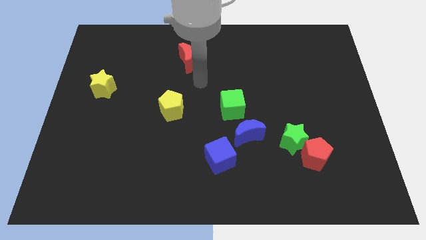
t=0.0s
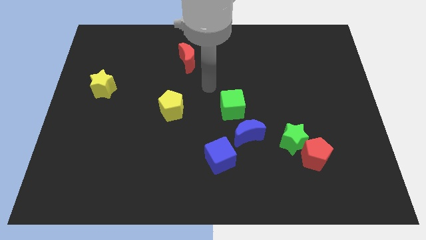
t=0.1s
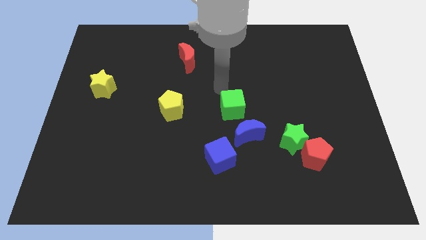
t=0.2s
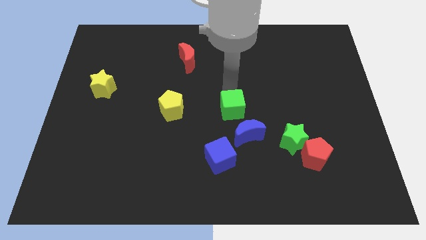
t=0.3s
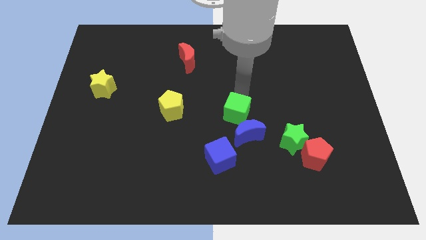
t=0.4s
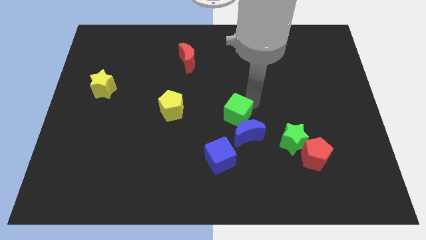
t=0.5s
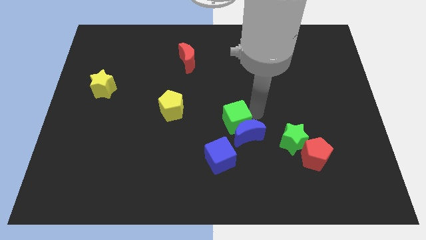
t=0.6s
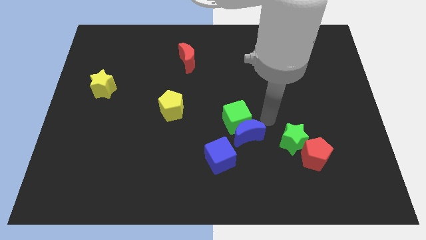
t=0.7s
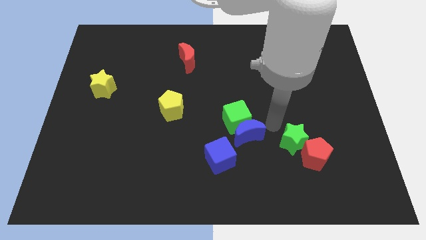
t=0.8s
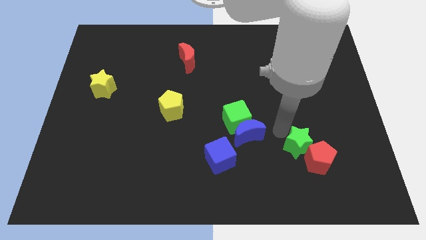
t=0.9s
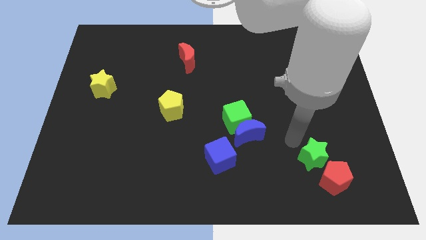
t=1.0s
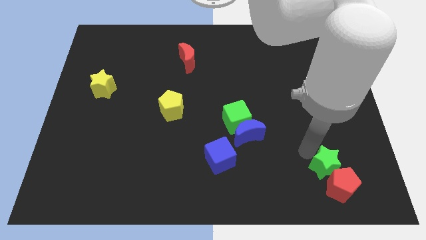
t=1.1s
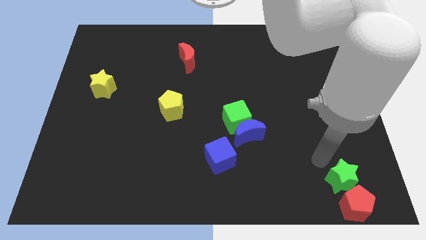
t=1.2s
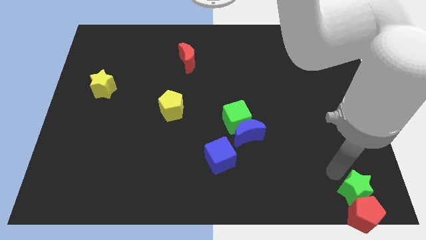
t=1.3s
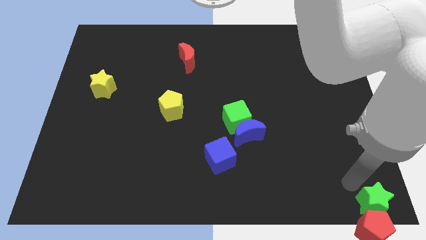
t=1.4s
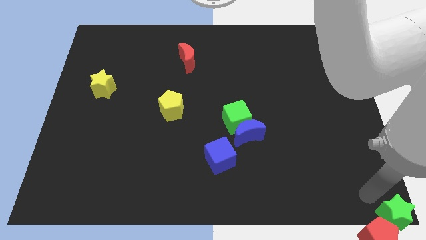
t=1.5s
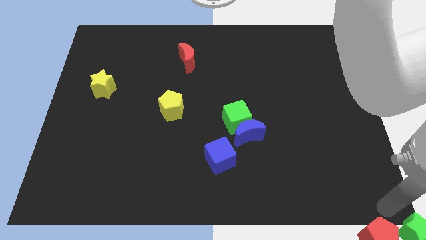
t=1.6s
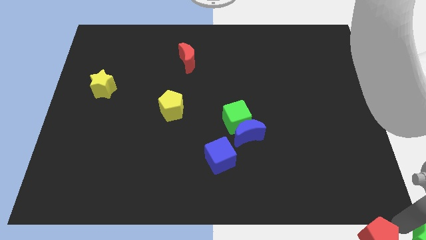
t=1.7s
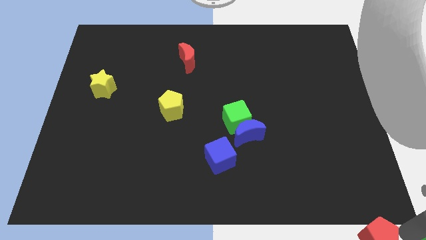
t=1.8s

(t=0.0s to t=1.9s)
move the red pentagon away from the green star

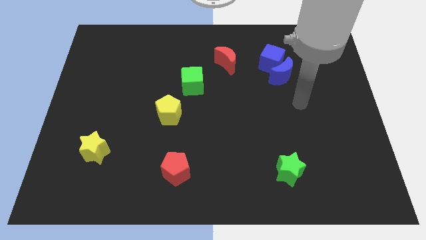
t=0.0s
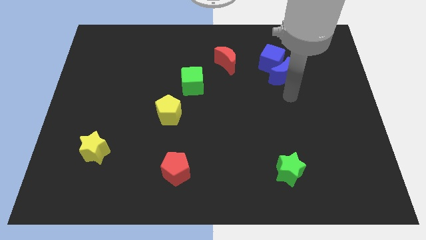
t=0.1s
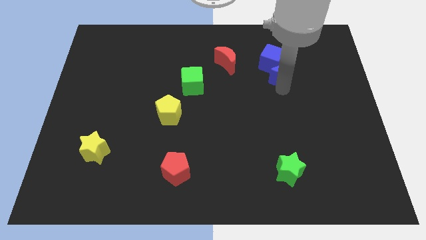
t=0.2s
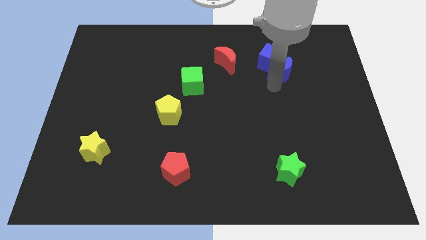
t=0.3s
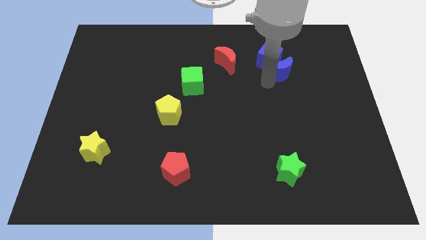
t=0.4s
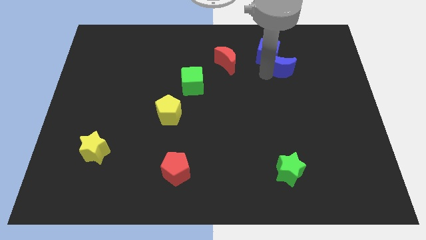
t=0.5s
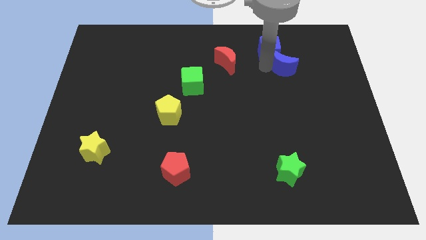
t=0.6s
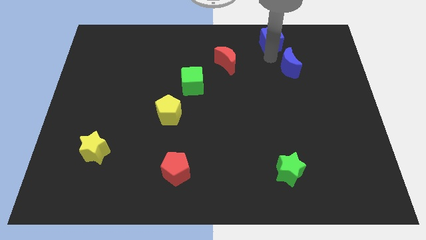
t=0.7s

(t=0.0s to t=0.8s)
separate the blue moon from the blue cube

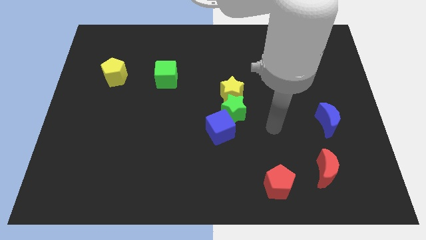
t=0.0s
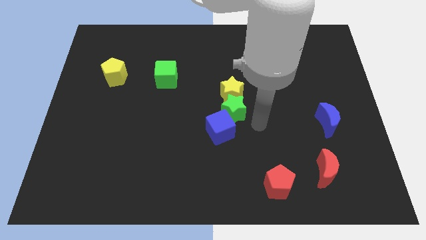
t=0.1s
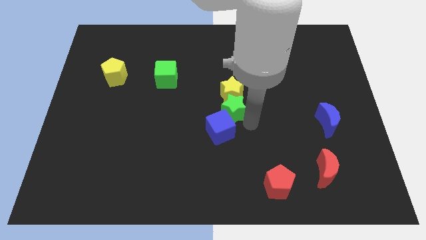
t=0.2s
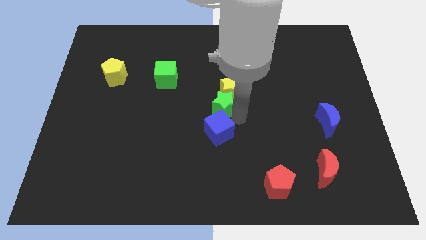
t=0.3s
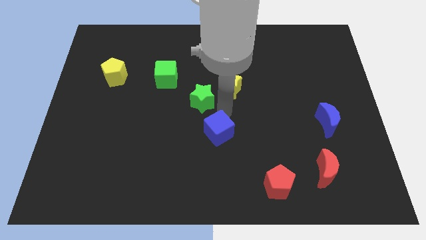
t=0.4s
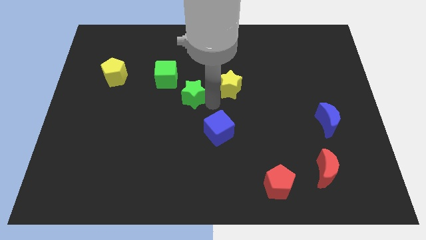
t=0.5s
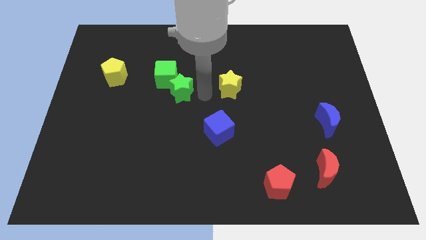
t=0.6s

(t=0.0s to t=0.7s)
separate the yellow star from the green star

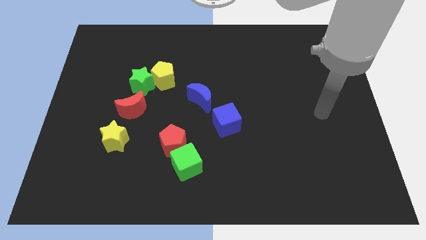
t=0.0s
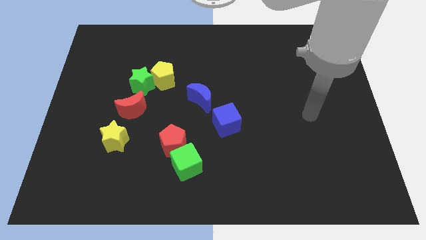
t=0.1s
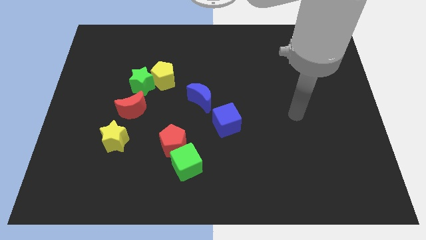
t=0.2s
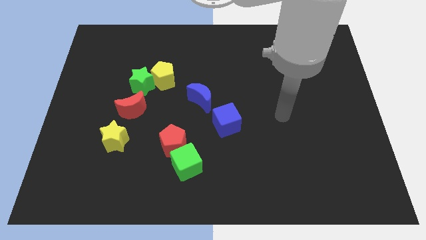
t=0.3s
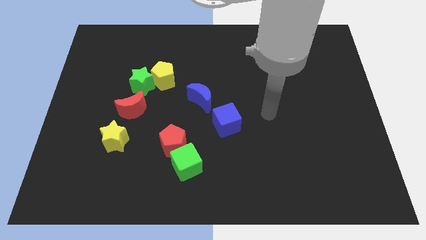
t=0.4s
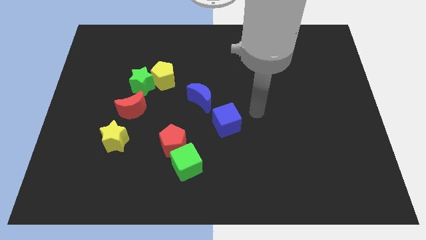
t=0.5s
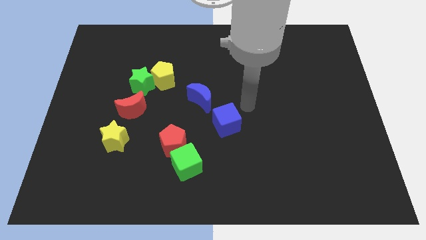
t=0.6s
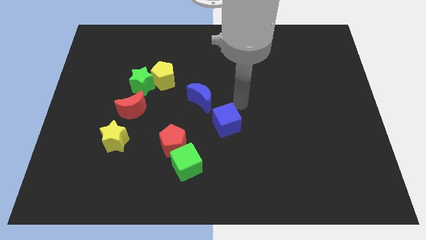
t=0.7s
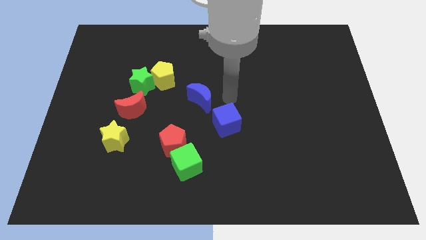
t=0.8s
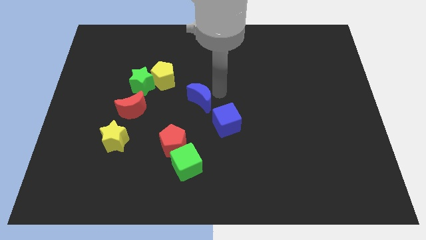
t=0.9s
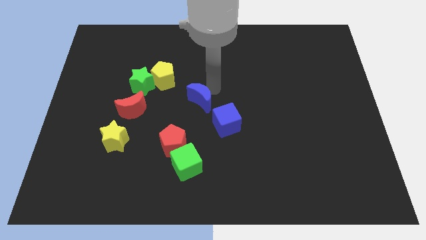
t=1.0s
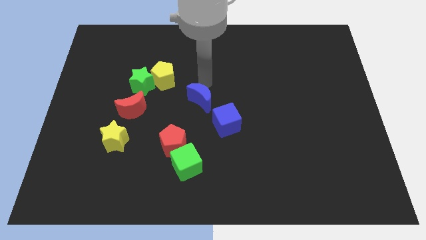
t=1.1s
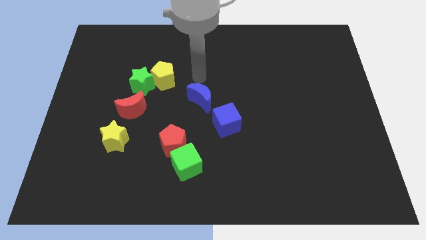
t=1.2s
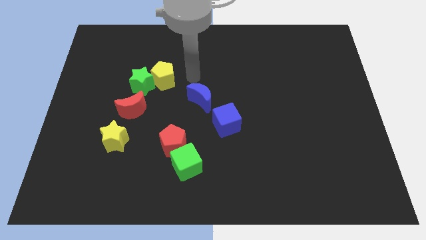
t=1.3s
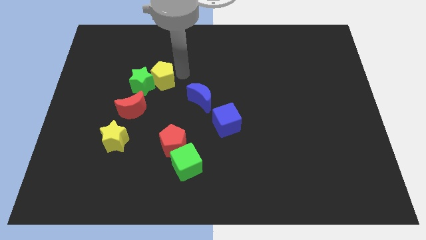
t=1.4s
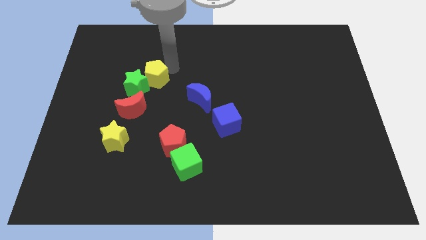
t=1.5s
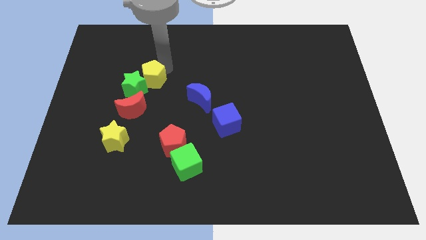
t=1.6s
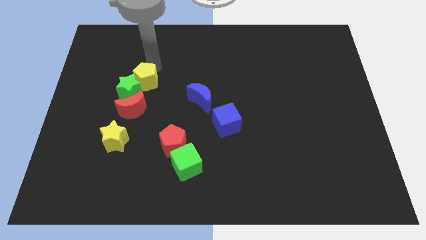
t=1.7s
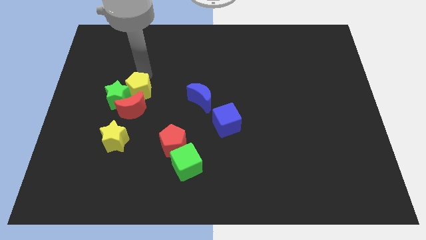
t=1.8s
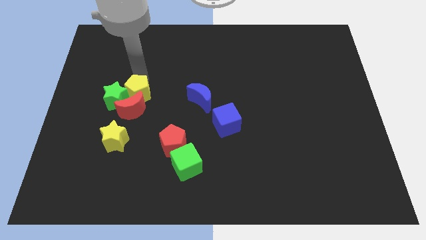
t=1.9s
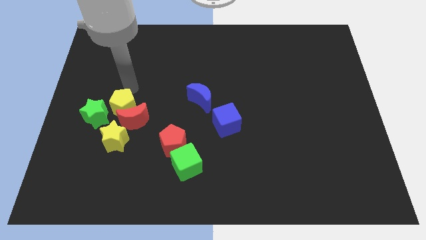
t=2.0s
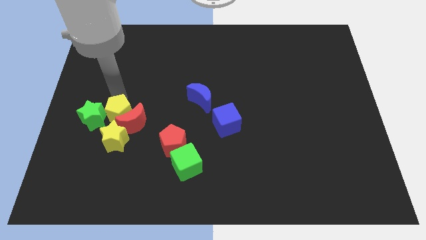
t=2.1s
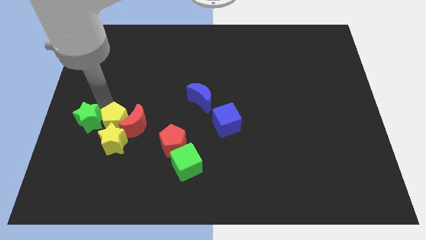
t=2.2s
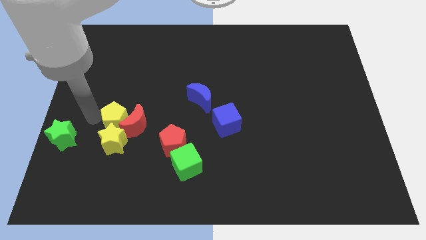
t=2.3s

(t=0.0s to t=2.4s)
move the yellow pentagon away from the green star

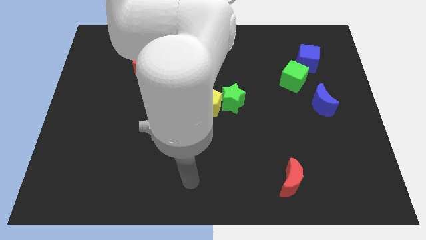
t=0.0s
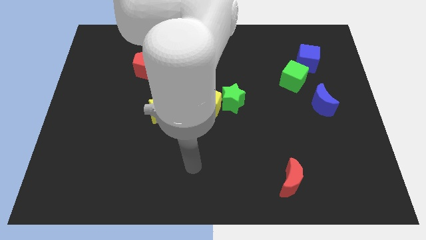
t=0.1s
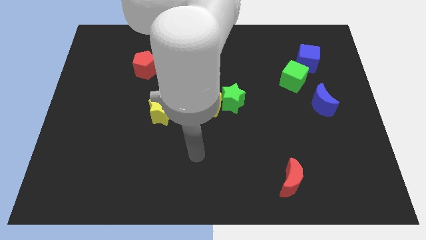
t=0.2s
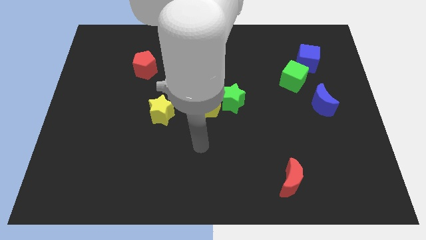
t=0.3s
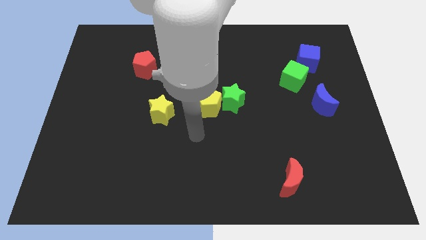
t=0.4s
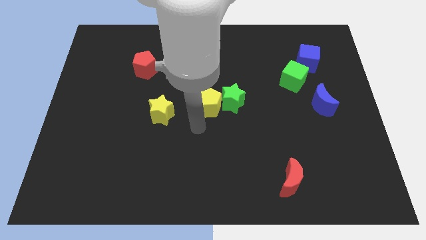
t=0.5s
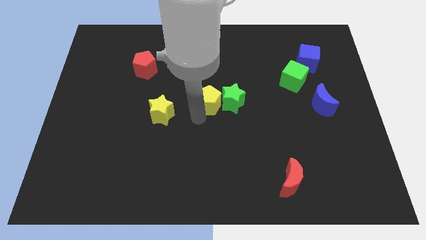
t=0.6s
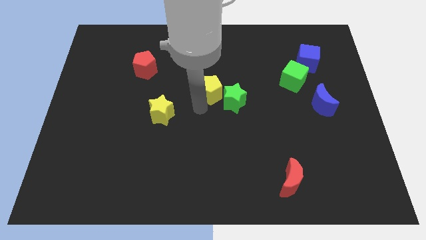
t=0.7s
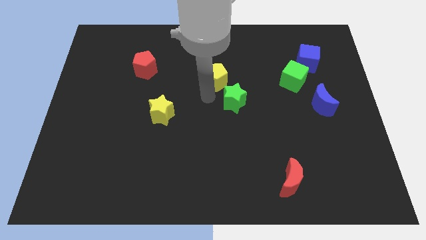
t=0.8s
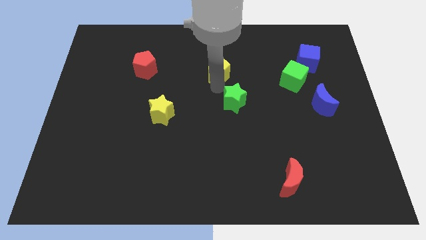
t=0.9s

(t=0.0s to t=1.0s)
separate the green star from the yellow pentagon

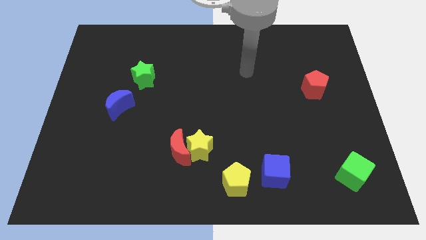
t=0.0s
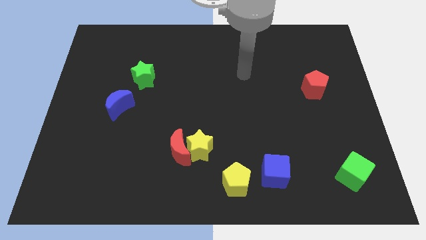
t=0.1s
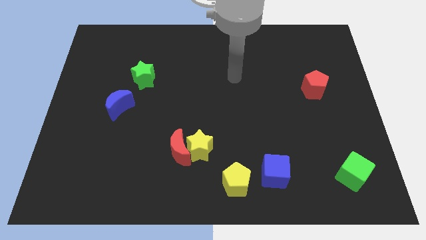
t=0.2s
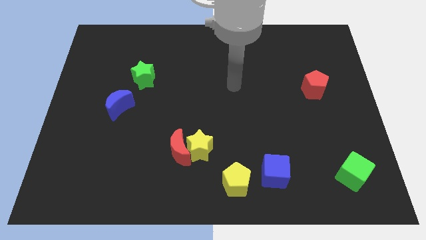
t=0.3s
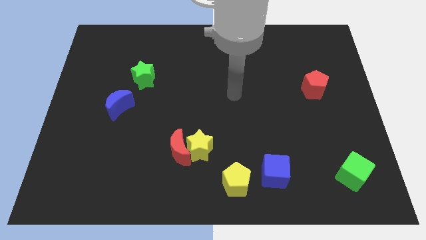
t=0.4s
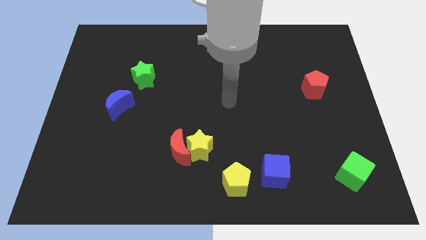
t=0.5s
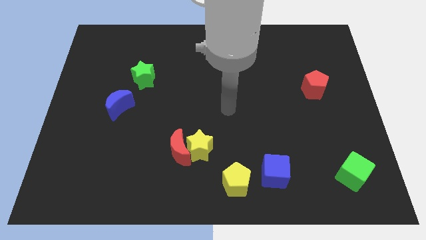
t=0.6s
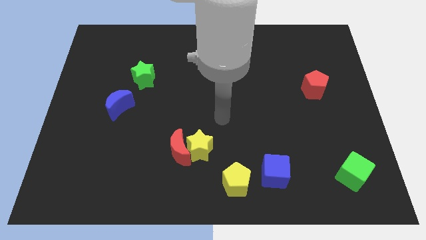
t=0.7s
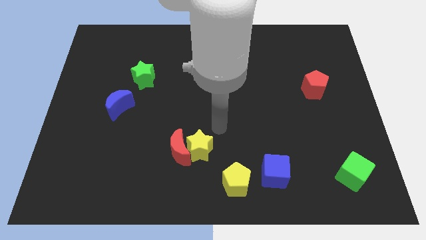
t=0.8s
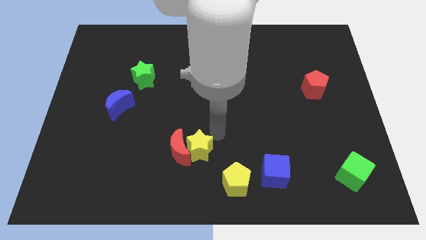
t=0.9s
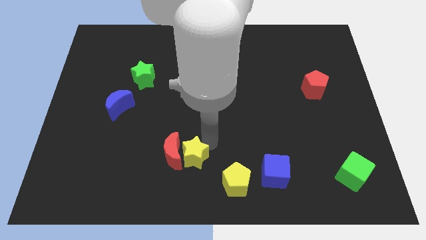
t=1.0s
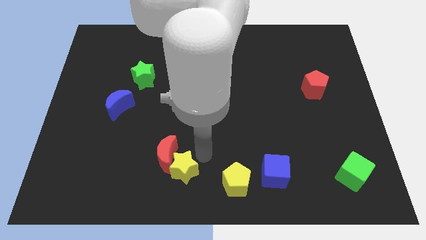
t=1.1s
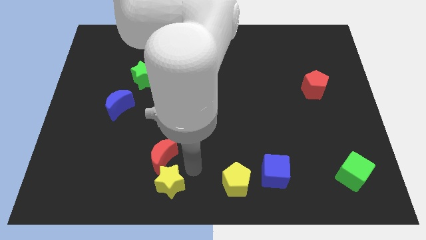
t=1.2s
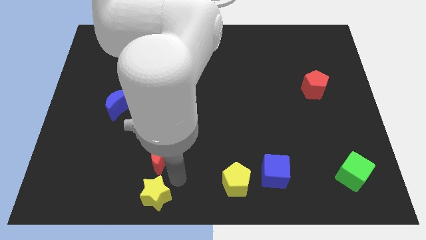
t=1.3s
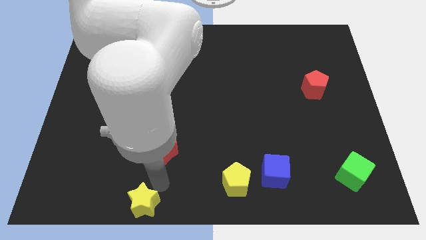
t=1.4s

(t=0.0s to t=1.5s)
pull the red moon apart from the yellow star

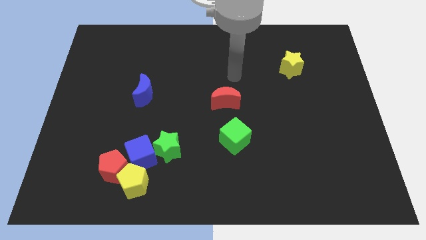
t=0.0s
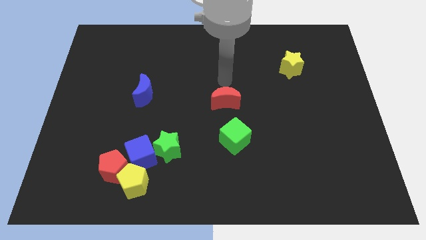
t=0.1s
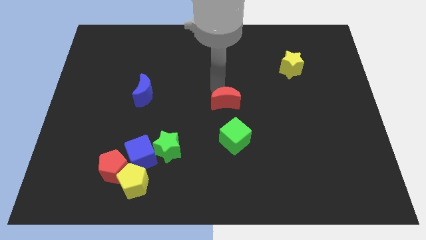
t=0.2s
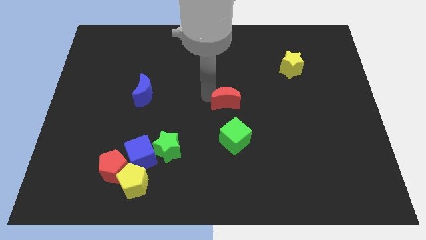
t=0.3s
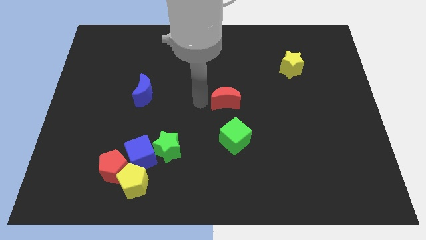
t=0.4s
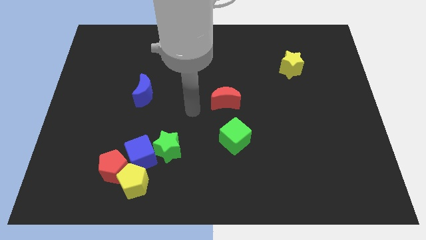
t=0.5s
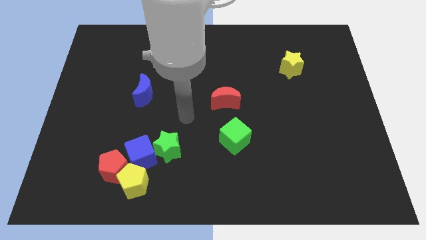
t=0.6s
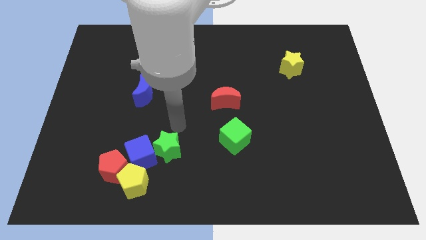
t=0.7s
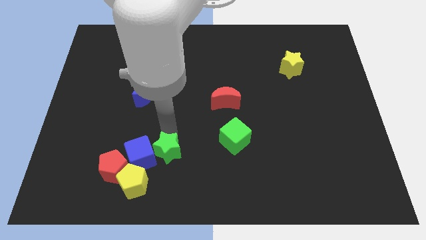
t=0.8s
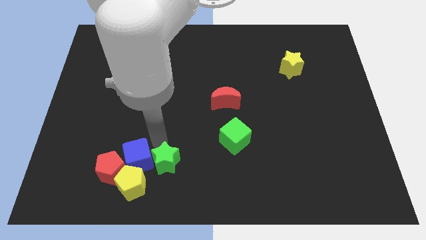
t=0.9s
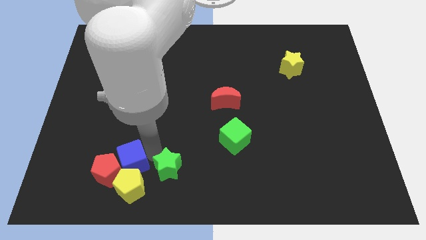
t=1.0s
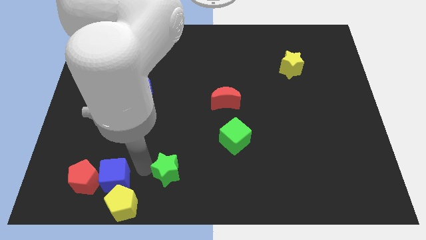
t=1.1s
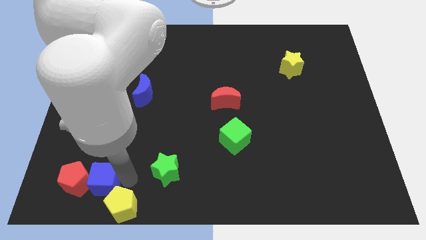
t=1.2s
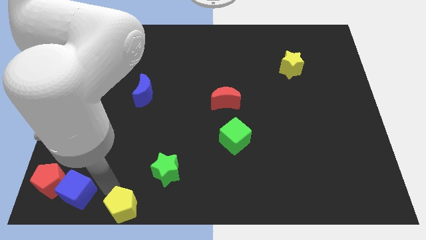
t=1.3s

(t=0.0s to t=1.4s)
move the red pentagon away from the yellow pentagon and blue cube
